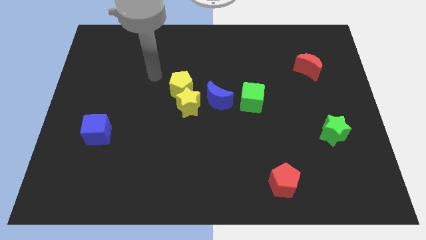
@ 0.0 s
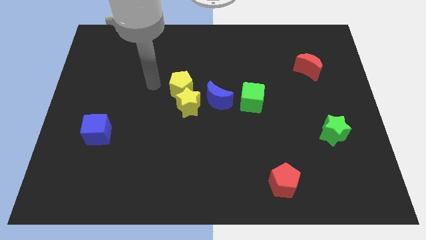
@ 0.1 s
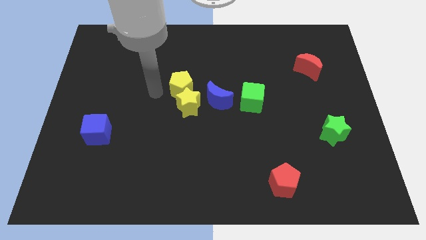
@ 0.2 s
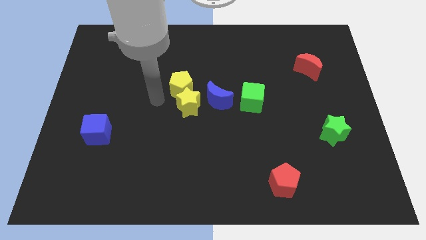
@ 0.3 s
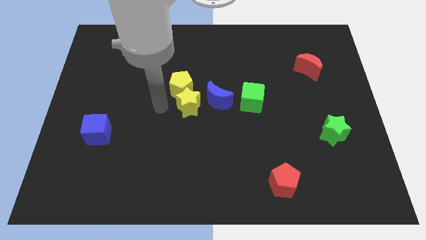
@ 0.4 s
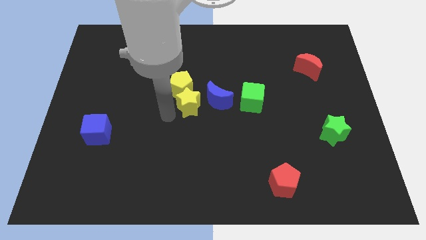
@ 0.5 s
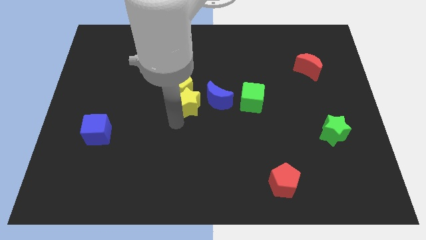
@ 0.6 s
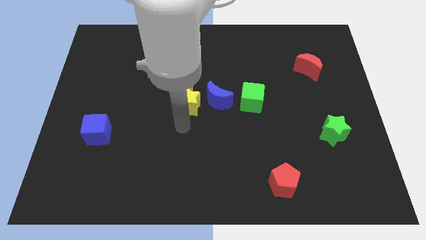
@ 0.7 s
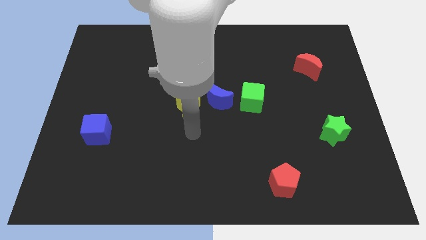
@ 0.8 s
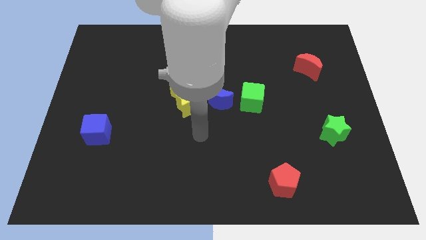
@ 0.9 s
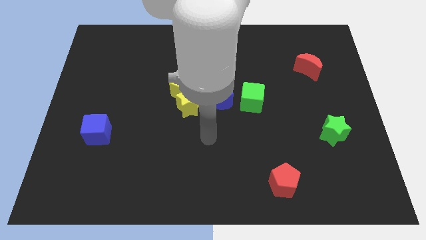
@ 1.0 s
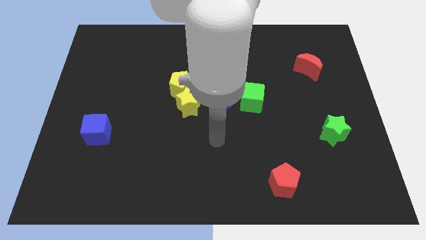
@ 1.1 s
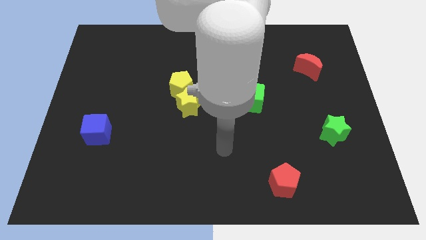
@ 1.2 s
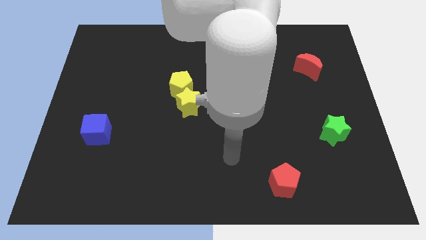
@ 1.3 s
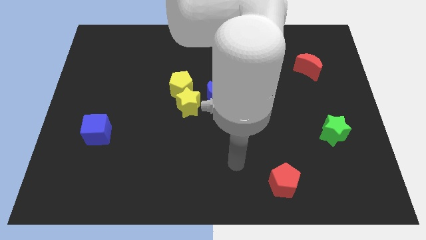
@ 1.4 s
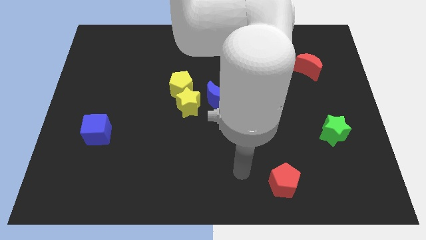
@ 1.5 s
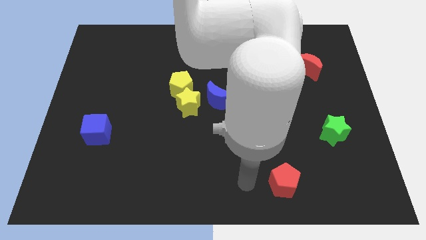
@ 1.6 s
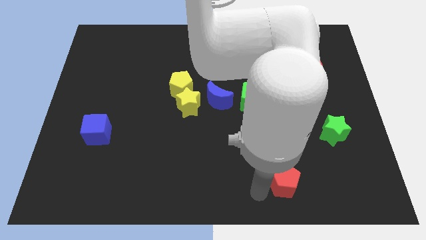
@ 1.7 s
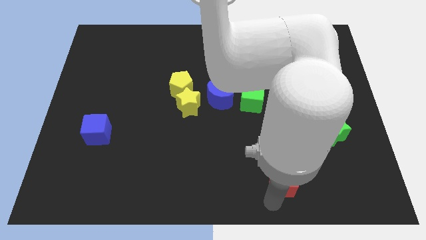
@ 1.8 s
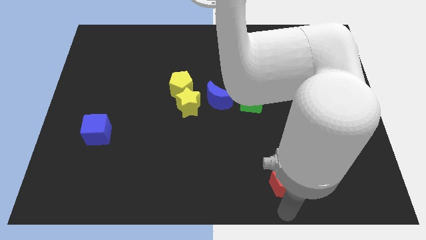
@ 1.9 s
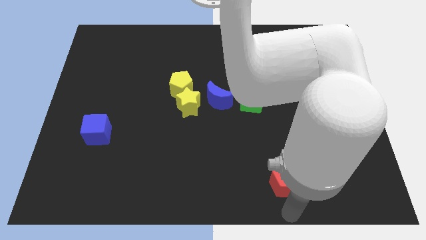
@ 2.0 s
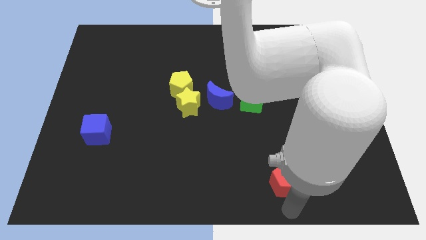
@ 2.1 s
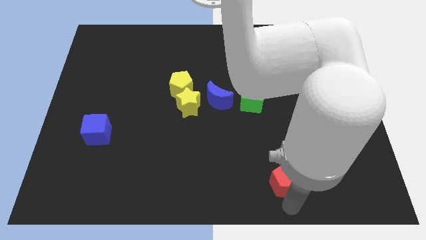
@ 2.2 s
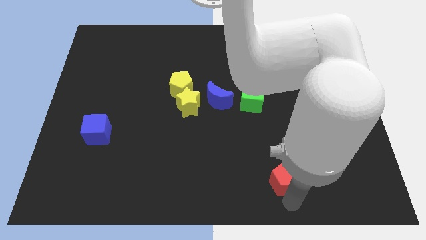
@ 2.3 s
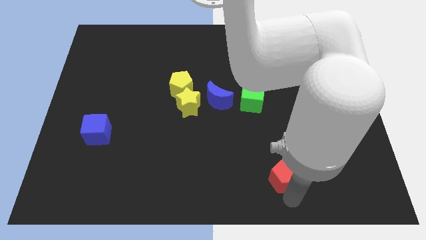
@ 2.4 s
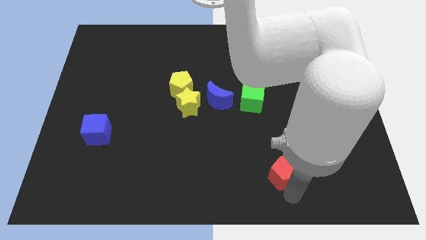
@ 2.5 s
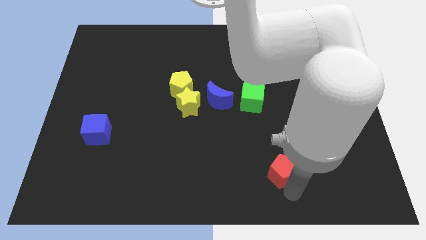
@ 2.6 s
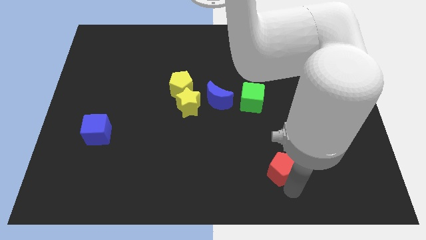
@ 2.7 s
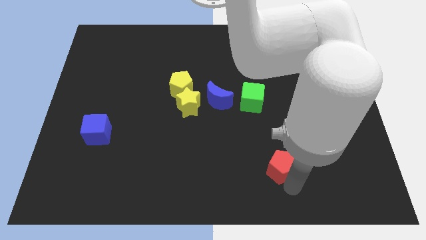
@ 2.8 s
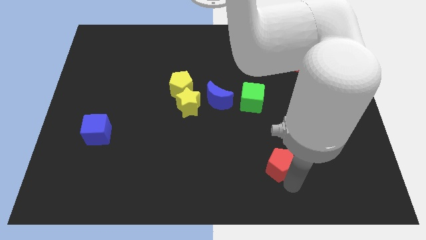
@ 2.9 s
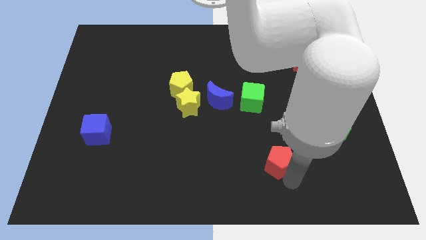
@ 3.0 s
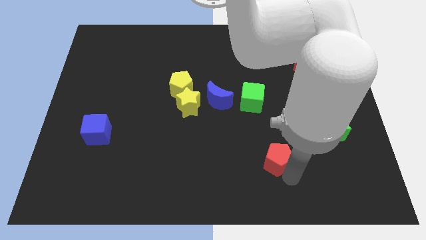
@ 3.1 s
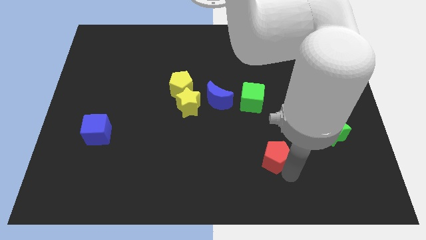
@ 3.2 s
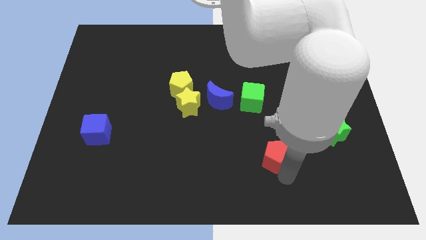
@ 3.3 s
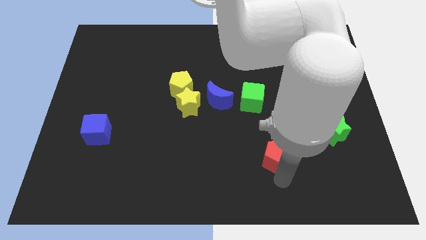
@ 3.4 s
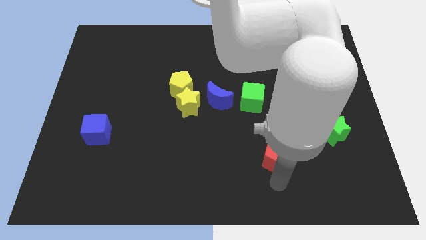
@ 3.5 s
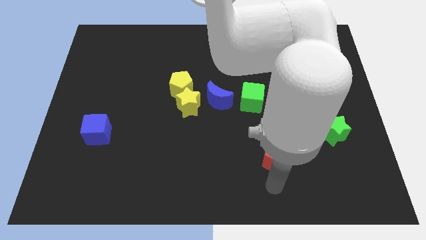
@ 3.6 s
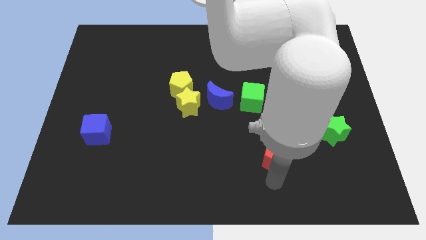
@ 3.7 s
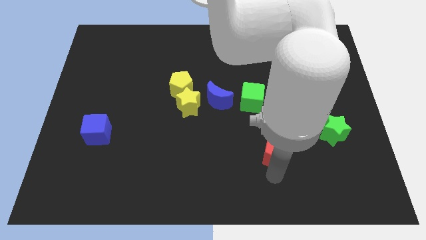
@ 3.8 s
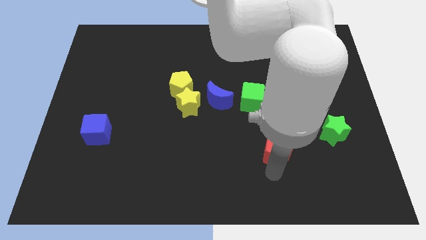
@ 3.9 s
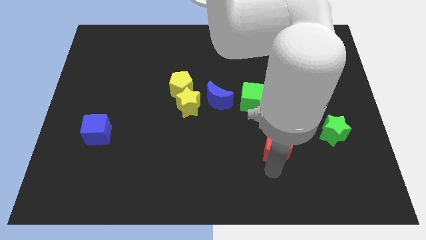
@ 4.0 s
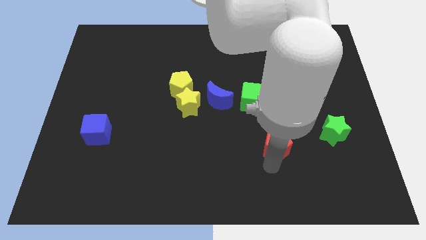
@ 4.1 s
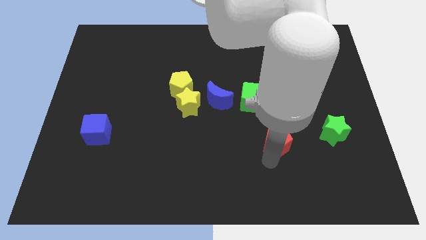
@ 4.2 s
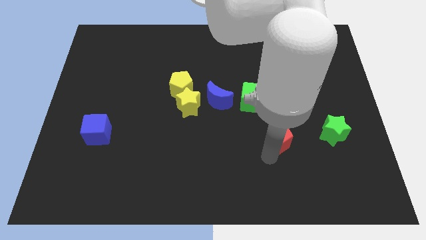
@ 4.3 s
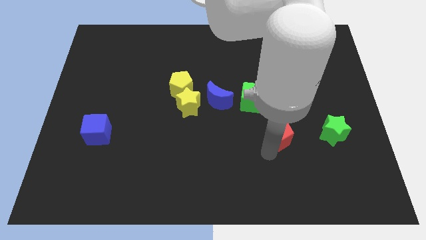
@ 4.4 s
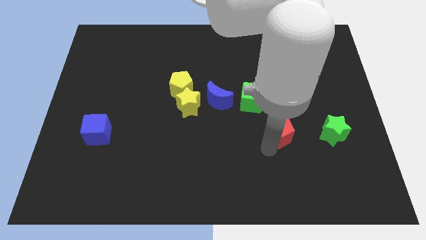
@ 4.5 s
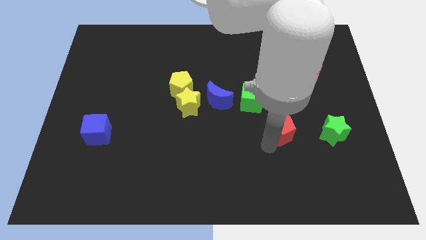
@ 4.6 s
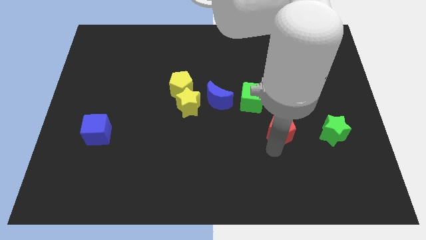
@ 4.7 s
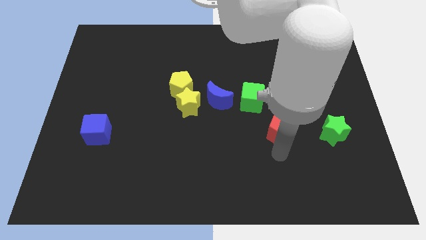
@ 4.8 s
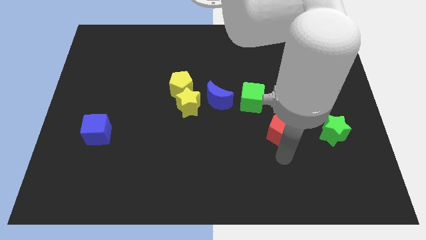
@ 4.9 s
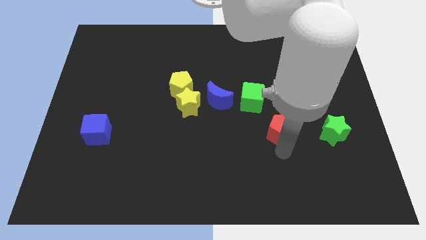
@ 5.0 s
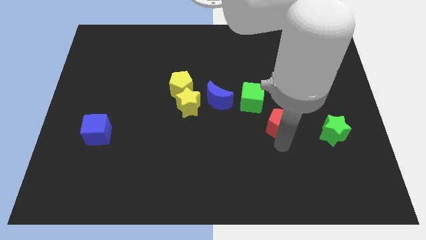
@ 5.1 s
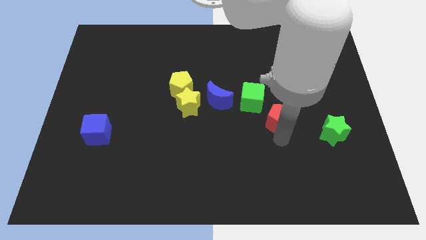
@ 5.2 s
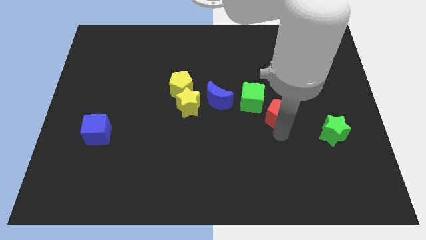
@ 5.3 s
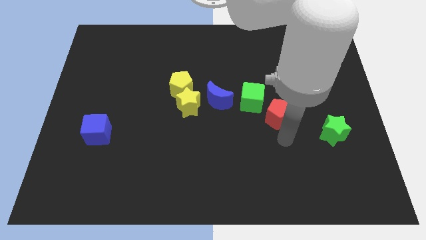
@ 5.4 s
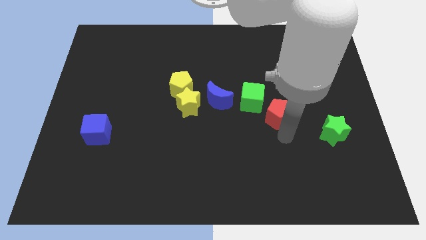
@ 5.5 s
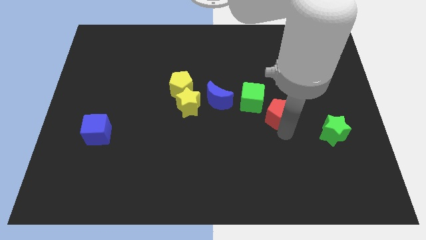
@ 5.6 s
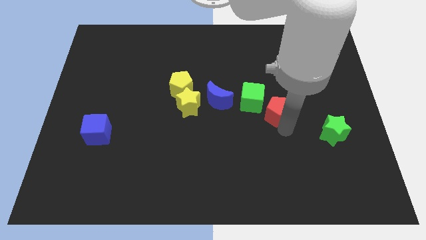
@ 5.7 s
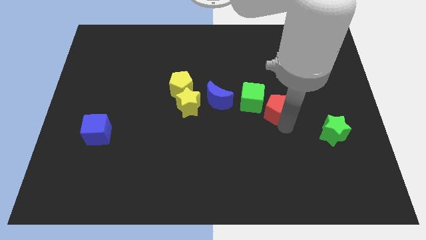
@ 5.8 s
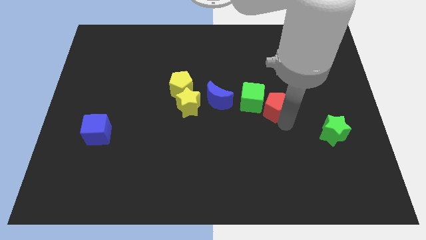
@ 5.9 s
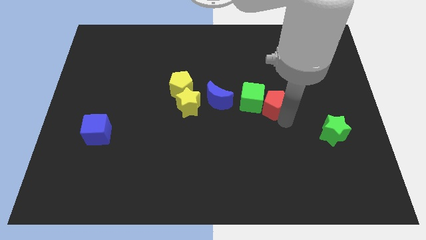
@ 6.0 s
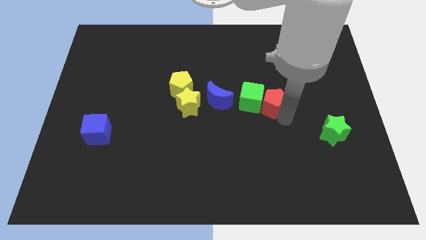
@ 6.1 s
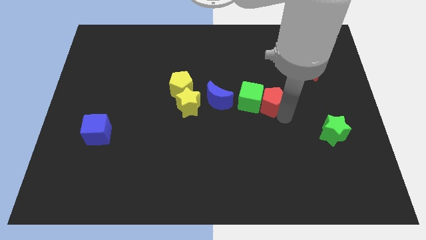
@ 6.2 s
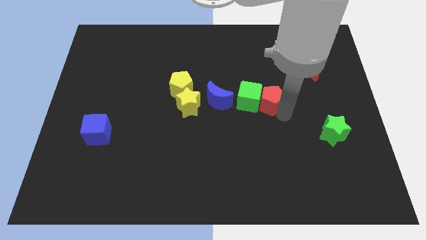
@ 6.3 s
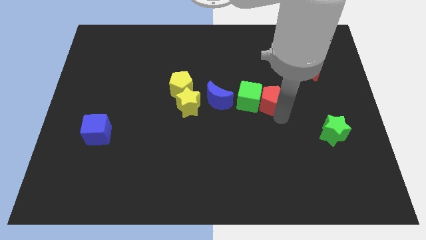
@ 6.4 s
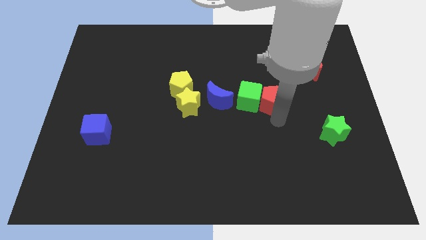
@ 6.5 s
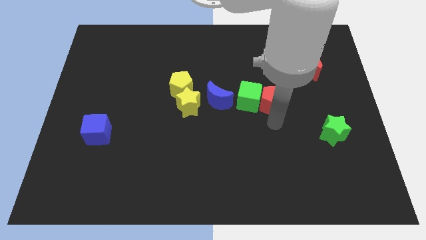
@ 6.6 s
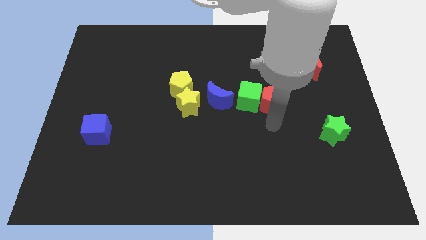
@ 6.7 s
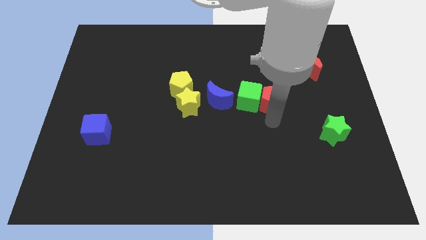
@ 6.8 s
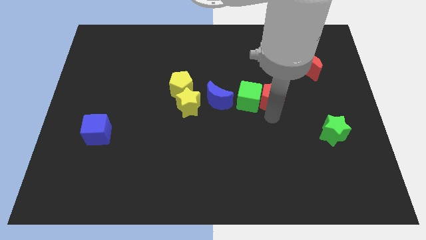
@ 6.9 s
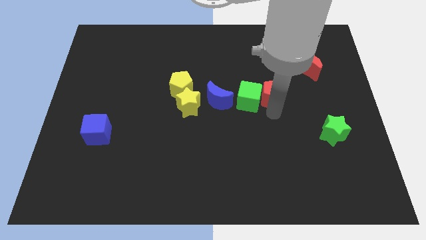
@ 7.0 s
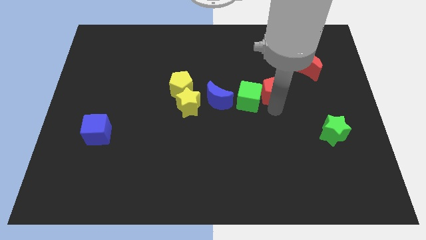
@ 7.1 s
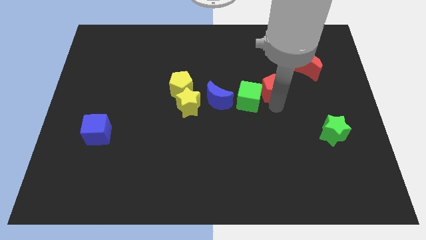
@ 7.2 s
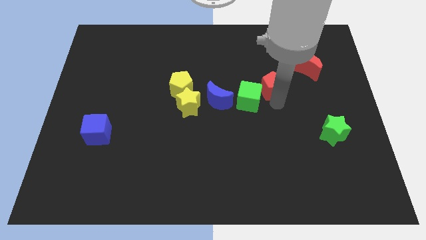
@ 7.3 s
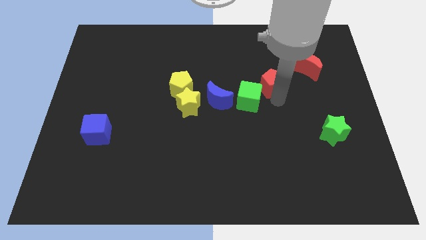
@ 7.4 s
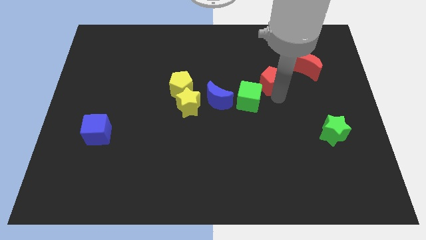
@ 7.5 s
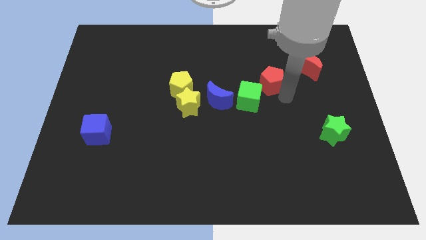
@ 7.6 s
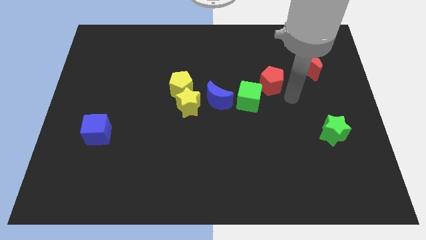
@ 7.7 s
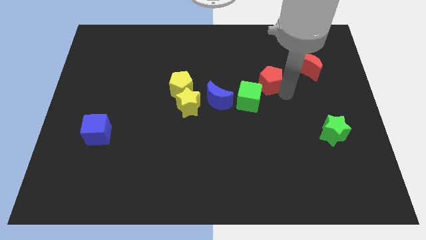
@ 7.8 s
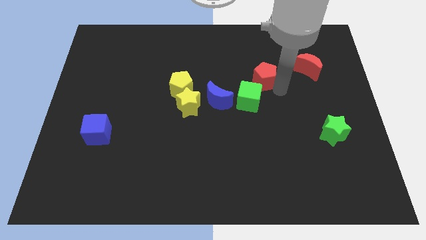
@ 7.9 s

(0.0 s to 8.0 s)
move the red pentagon to the top side of the green cube
